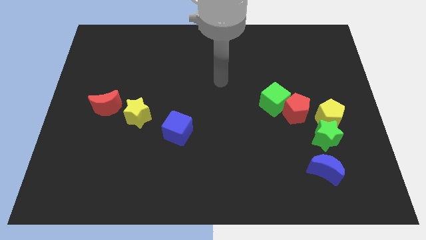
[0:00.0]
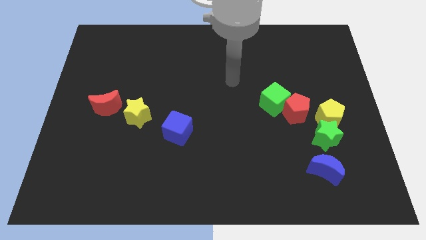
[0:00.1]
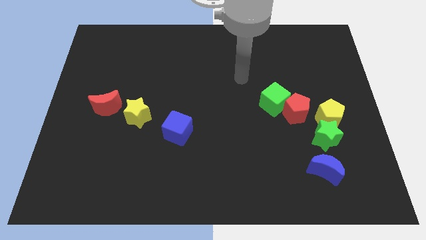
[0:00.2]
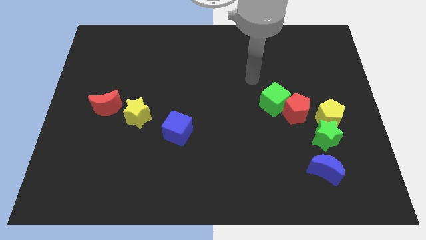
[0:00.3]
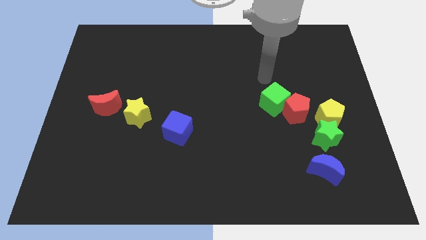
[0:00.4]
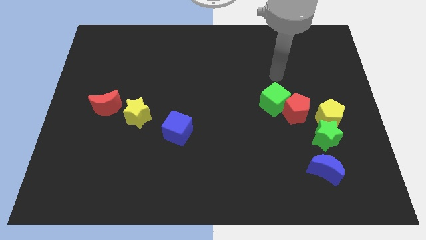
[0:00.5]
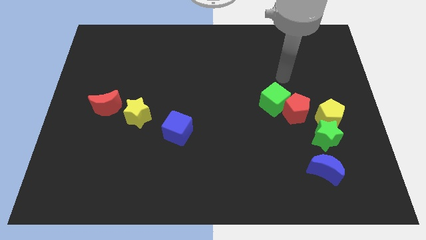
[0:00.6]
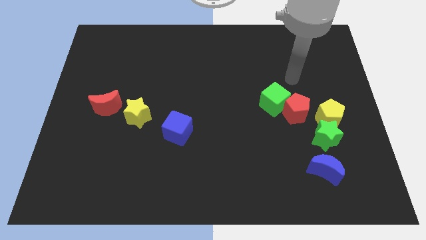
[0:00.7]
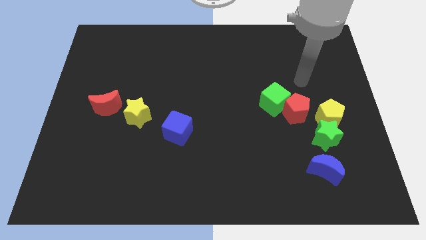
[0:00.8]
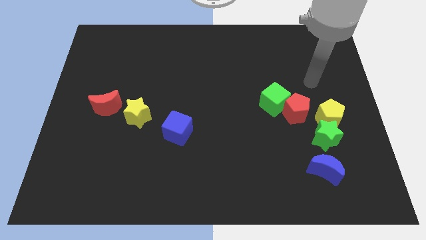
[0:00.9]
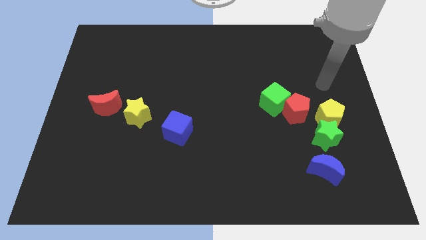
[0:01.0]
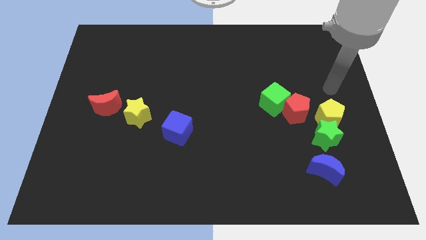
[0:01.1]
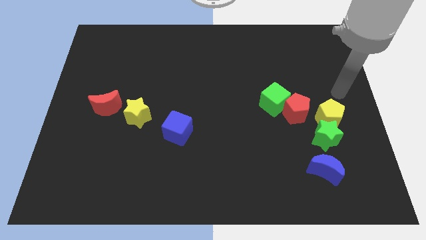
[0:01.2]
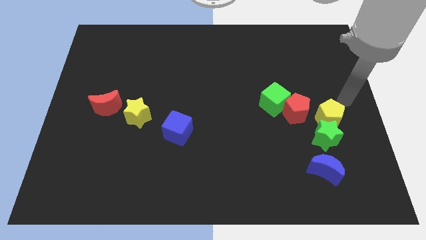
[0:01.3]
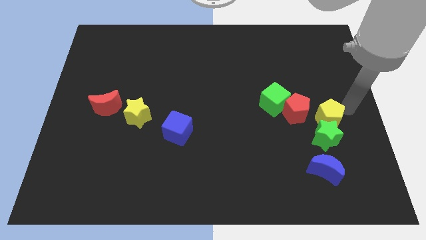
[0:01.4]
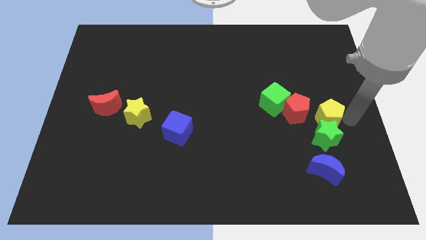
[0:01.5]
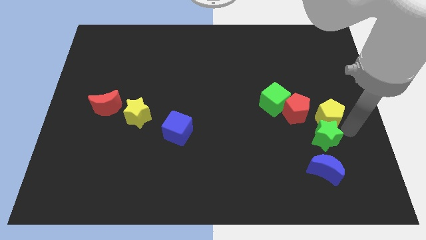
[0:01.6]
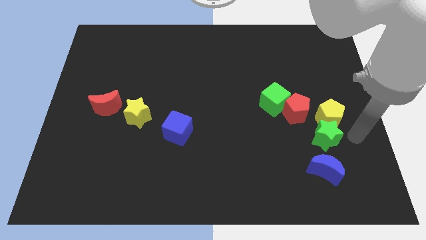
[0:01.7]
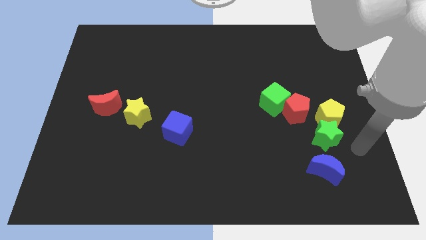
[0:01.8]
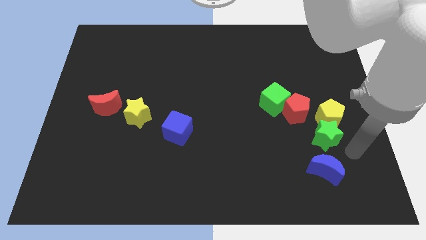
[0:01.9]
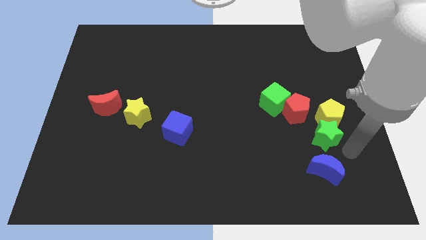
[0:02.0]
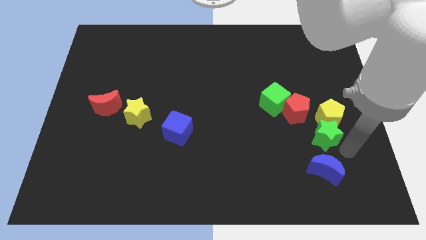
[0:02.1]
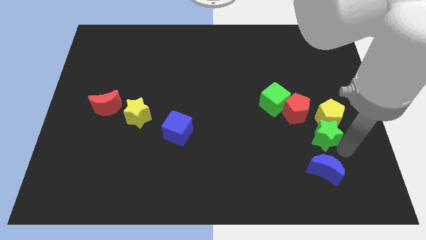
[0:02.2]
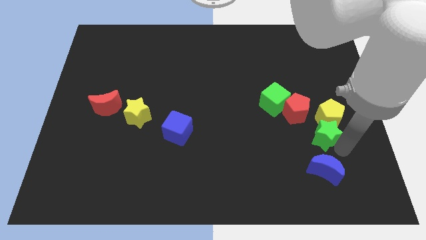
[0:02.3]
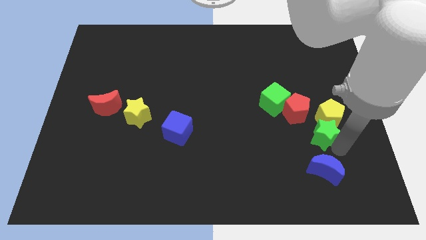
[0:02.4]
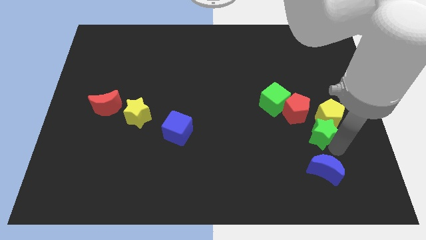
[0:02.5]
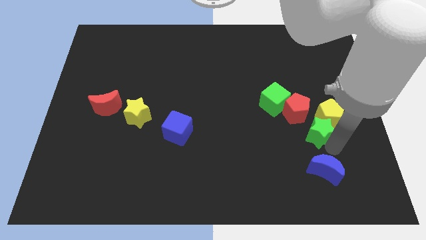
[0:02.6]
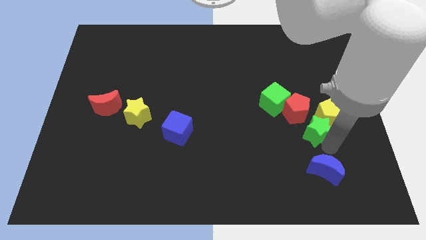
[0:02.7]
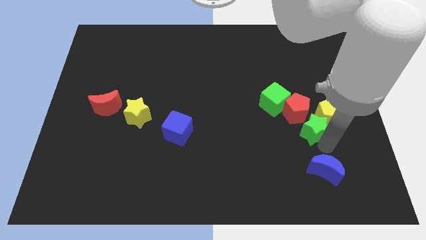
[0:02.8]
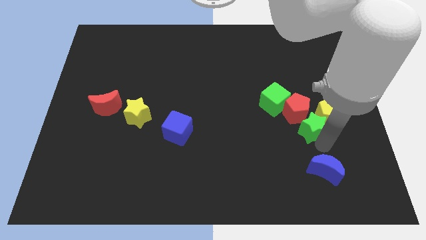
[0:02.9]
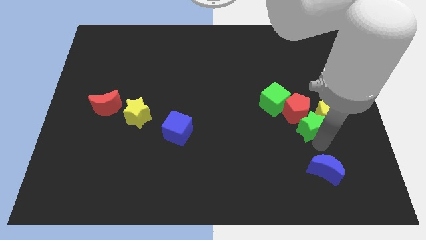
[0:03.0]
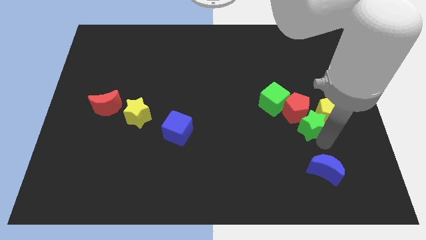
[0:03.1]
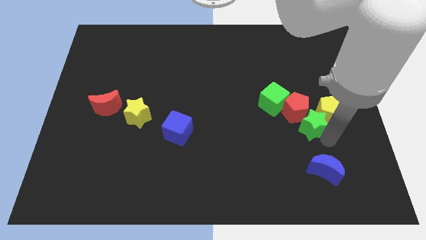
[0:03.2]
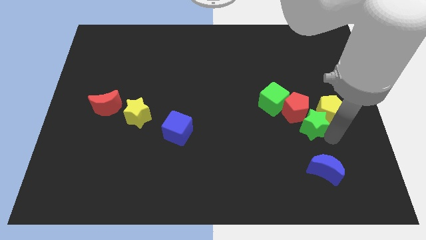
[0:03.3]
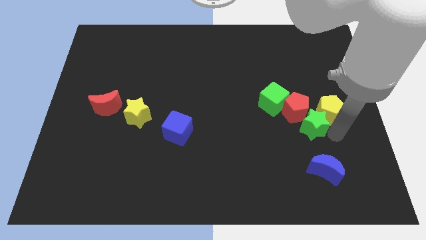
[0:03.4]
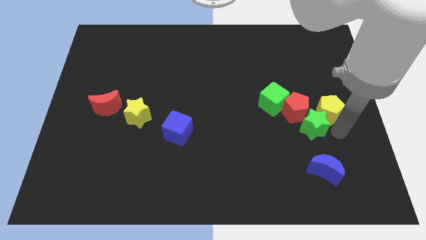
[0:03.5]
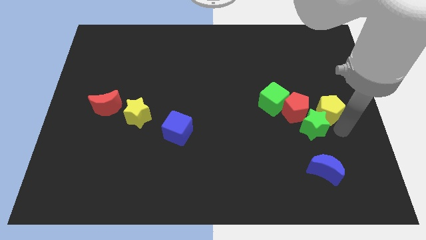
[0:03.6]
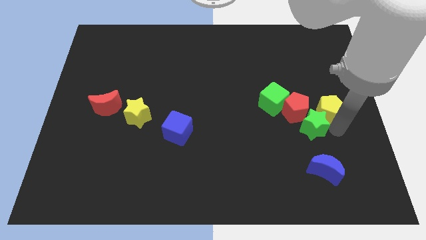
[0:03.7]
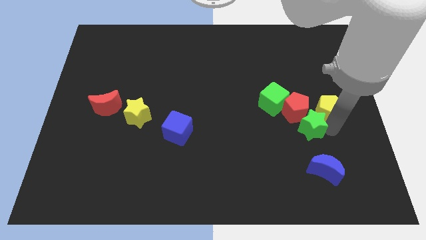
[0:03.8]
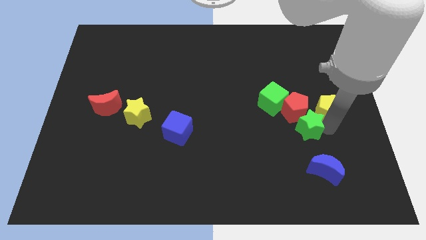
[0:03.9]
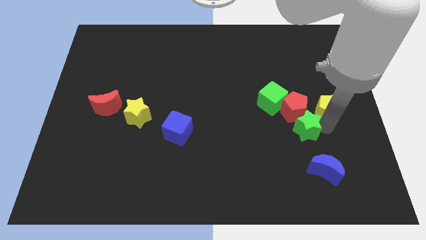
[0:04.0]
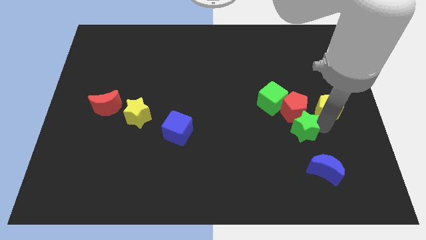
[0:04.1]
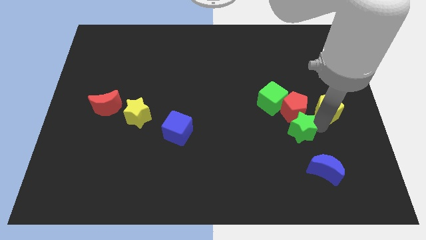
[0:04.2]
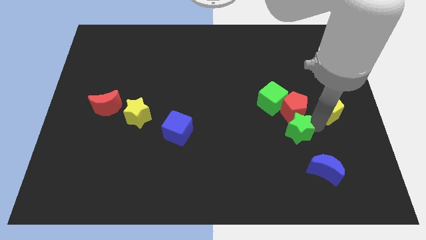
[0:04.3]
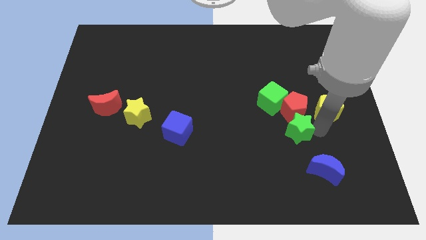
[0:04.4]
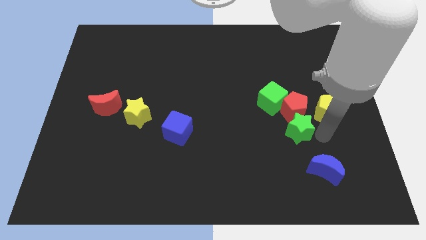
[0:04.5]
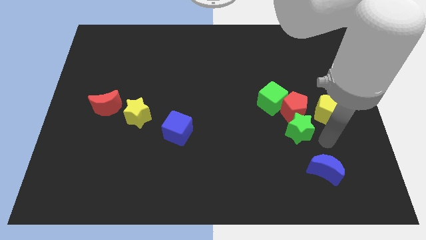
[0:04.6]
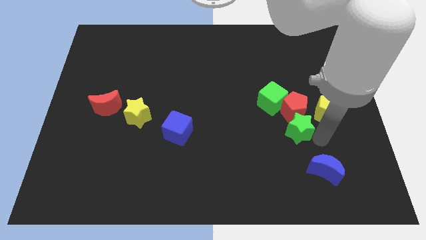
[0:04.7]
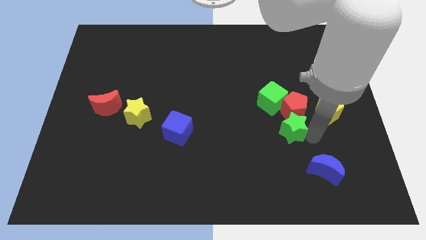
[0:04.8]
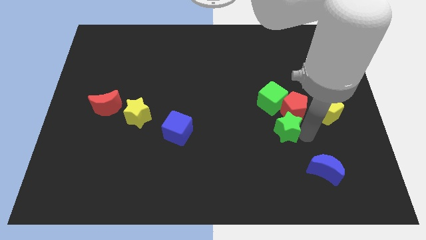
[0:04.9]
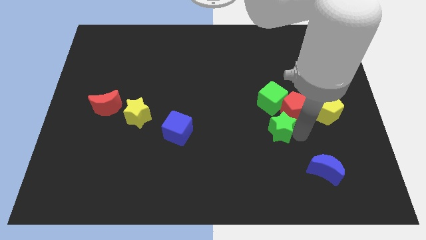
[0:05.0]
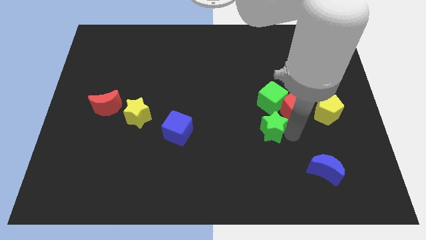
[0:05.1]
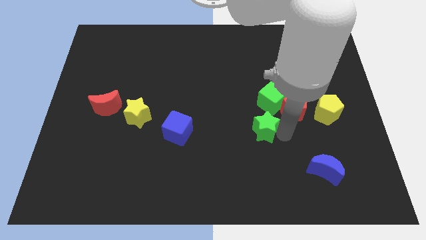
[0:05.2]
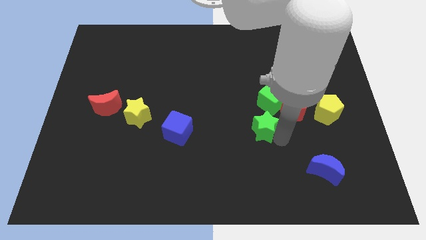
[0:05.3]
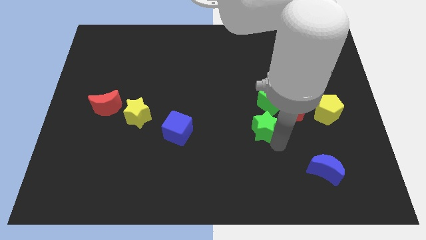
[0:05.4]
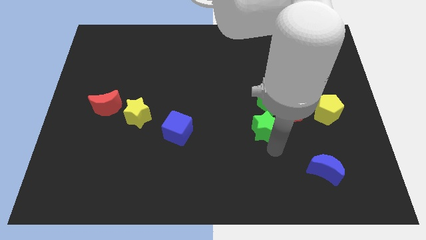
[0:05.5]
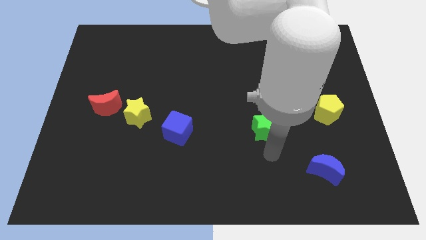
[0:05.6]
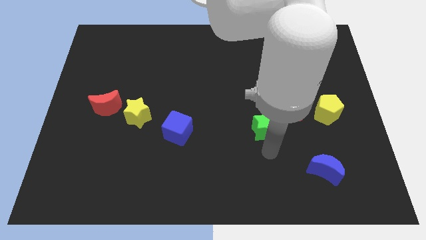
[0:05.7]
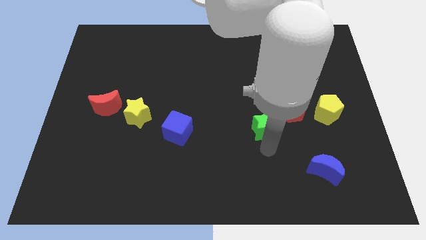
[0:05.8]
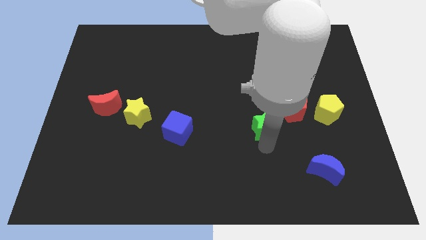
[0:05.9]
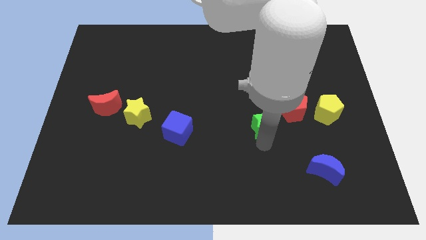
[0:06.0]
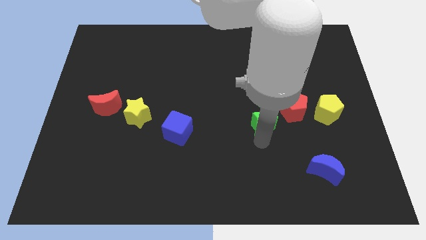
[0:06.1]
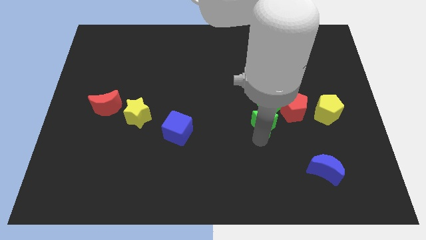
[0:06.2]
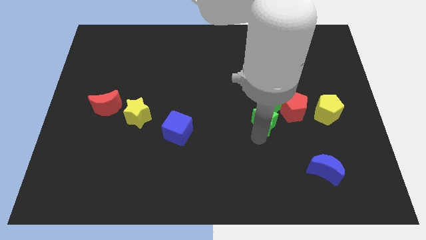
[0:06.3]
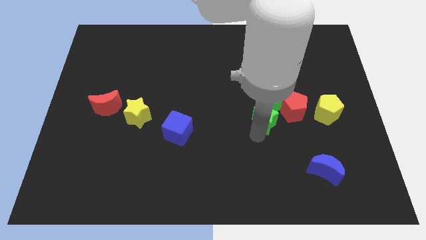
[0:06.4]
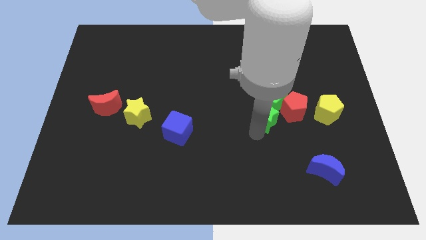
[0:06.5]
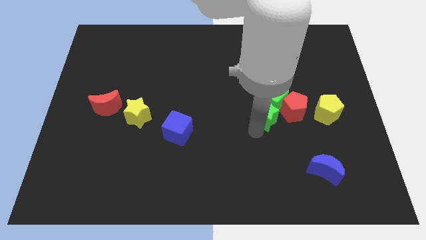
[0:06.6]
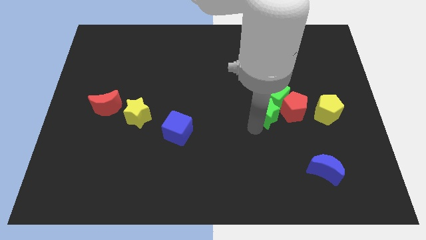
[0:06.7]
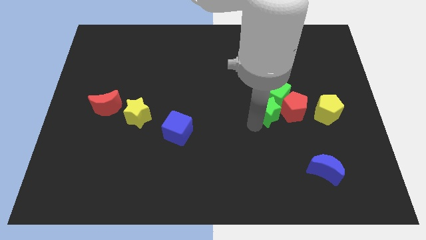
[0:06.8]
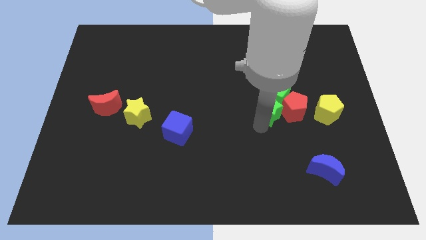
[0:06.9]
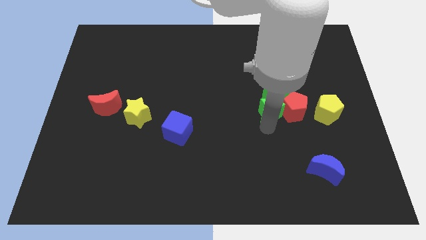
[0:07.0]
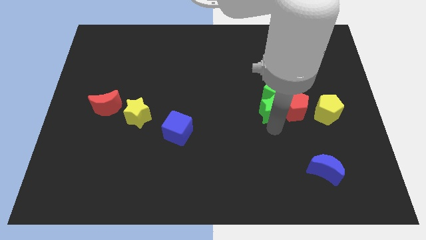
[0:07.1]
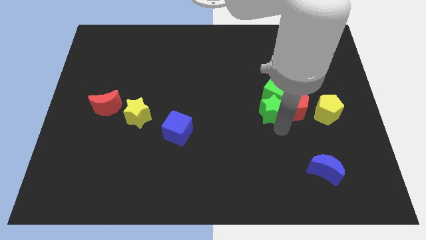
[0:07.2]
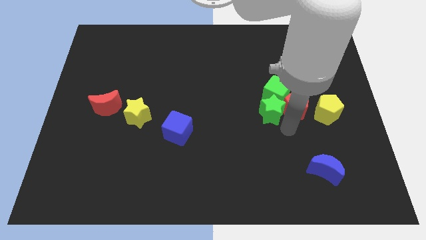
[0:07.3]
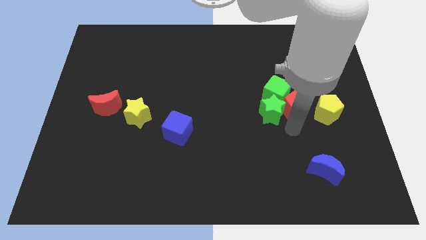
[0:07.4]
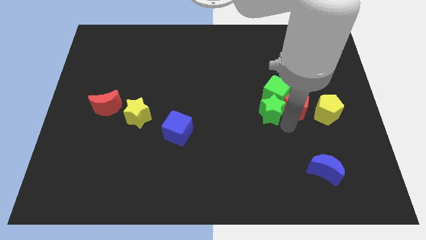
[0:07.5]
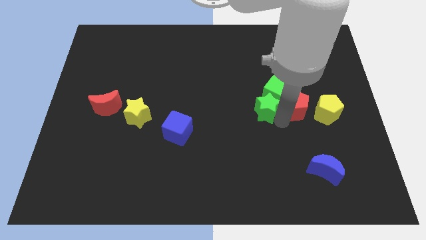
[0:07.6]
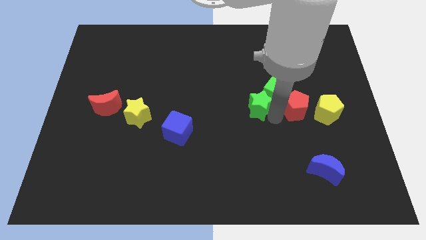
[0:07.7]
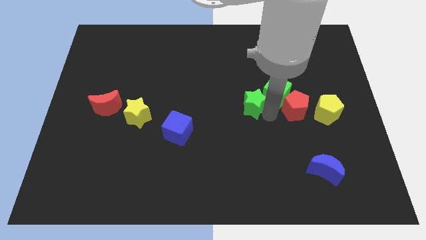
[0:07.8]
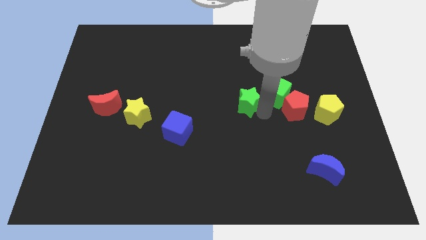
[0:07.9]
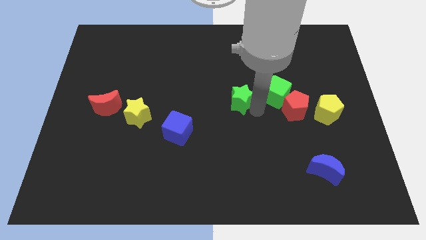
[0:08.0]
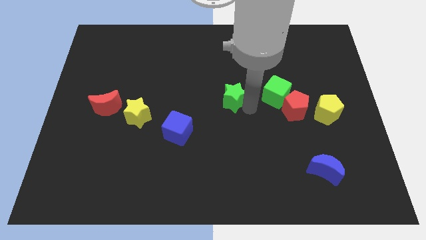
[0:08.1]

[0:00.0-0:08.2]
push the green star upwards and to the left diagonally

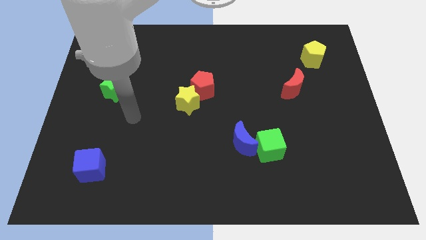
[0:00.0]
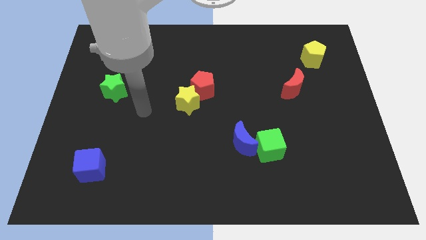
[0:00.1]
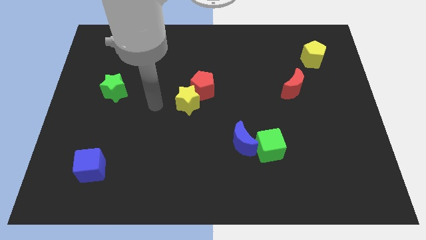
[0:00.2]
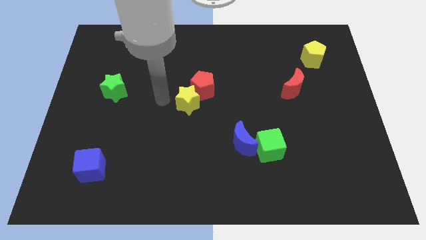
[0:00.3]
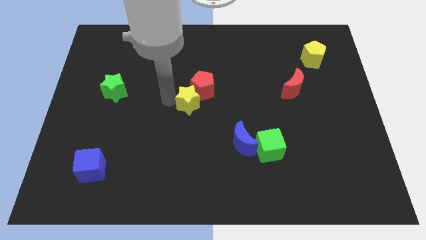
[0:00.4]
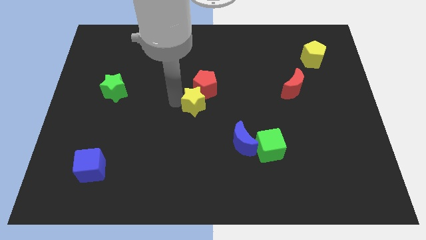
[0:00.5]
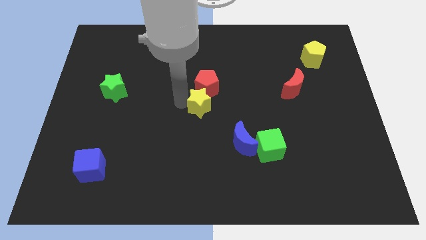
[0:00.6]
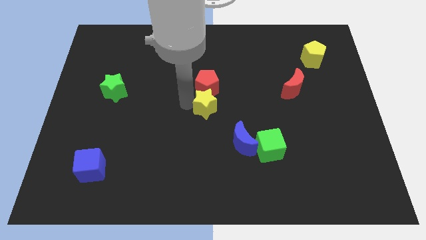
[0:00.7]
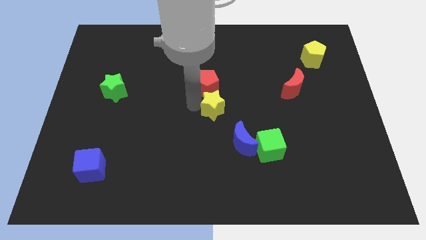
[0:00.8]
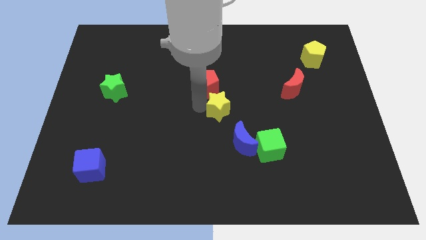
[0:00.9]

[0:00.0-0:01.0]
push the yellow star somewhat right
